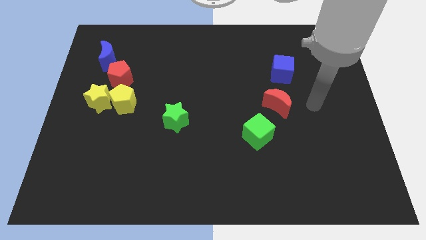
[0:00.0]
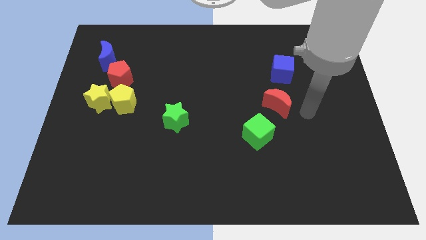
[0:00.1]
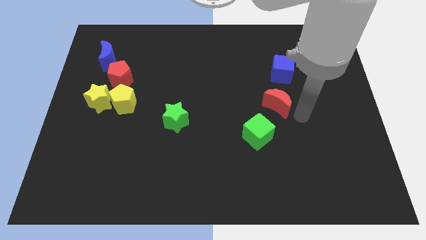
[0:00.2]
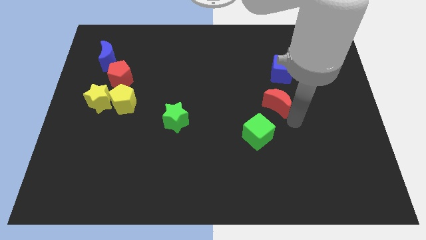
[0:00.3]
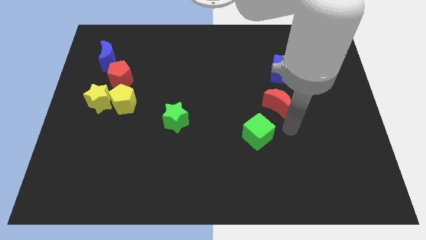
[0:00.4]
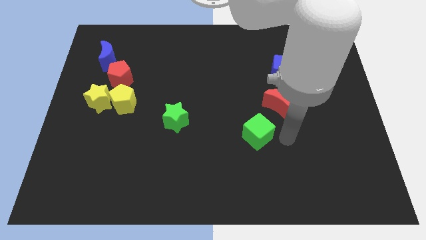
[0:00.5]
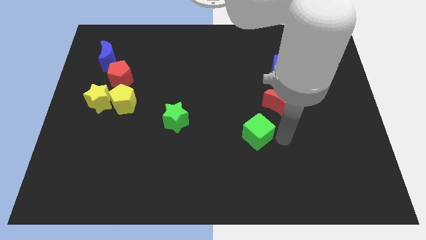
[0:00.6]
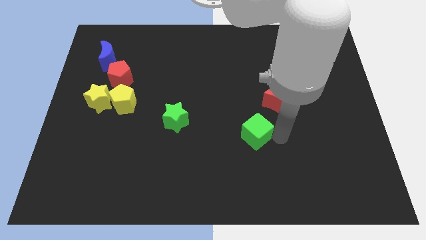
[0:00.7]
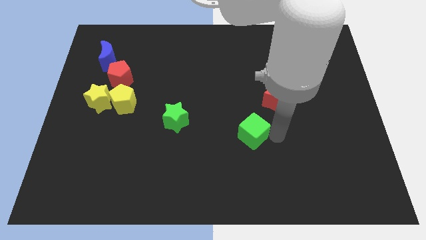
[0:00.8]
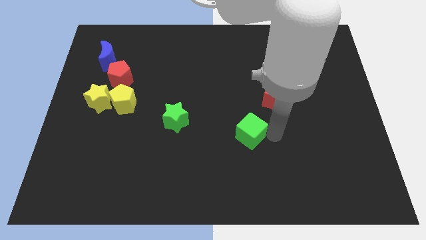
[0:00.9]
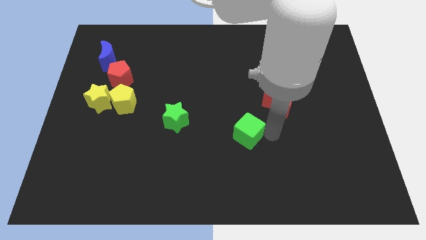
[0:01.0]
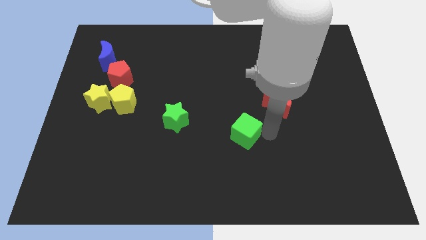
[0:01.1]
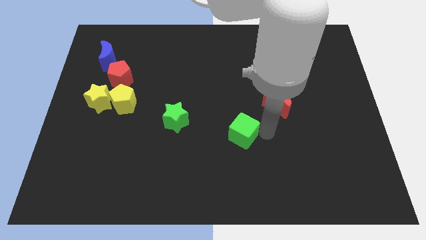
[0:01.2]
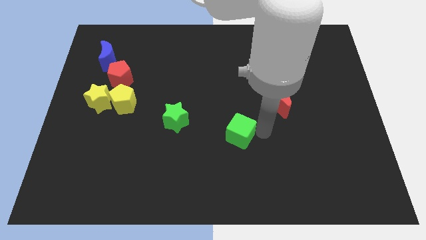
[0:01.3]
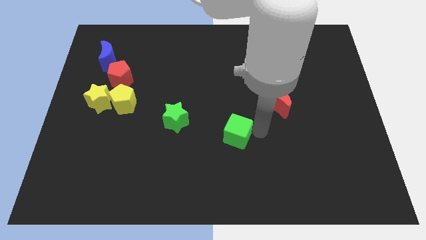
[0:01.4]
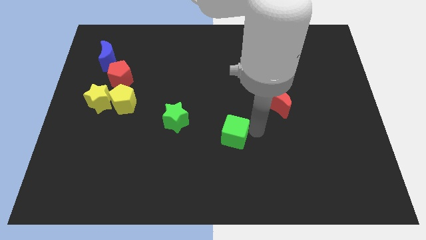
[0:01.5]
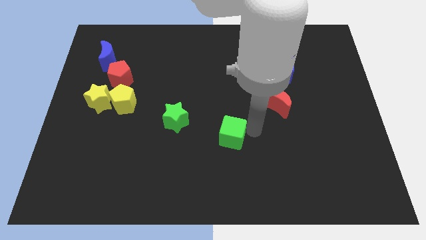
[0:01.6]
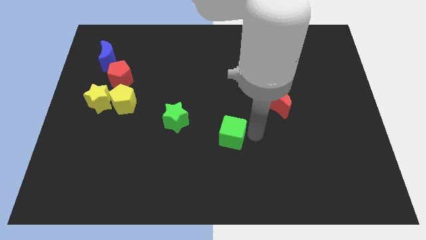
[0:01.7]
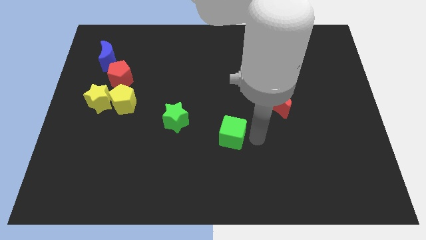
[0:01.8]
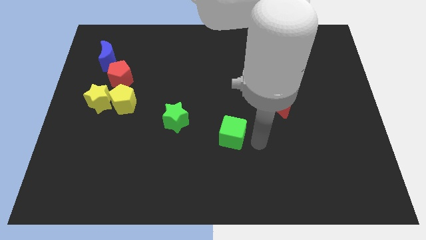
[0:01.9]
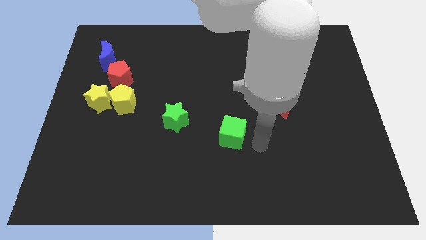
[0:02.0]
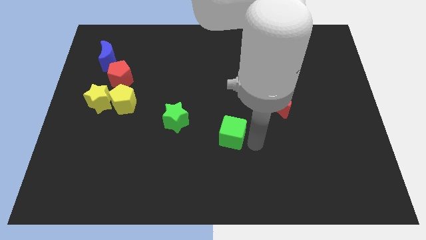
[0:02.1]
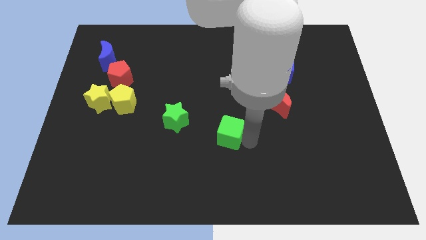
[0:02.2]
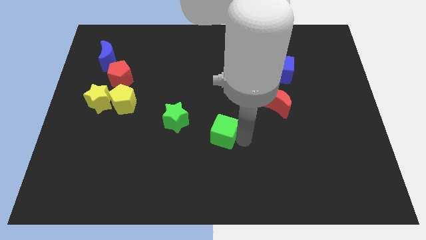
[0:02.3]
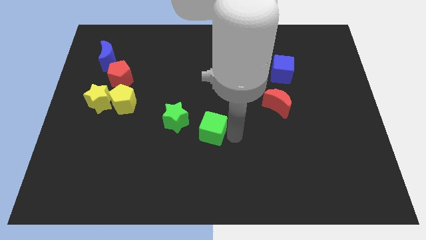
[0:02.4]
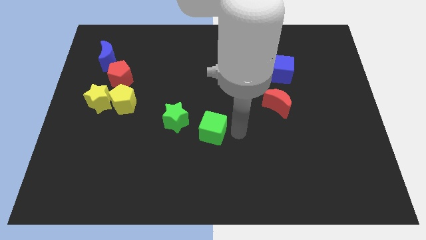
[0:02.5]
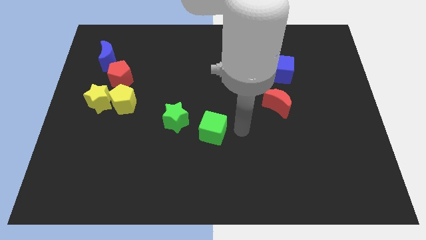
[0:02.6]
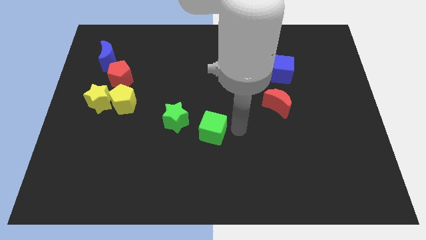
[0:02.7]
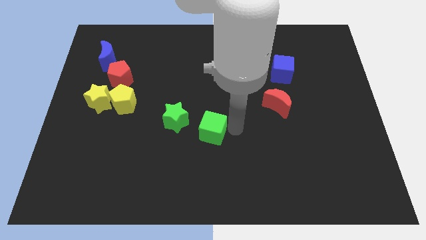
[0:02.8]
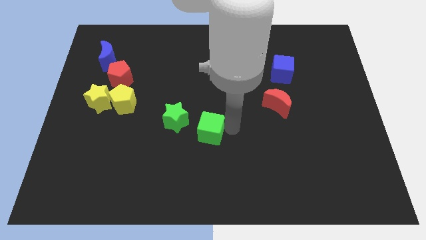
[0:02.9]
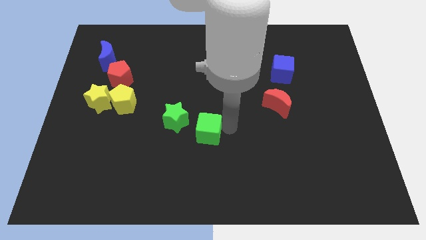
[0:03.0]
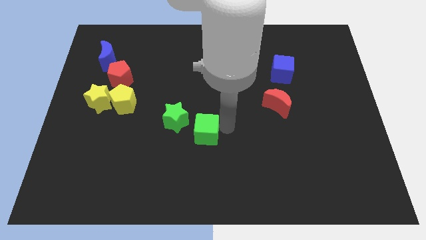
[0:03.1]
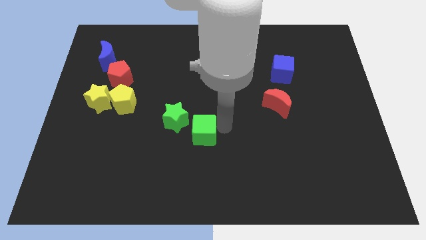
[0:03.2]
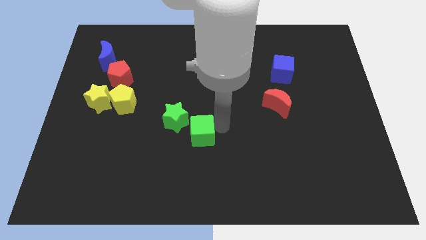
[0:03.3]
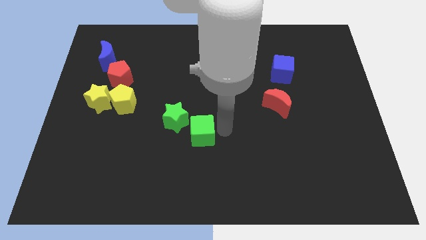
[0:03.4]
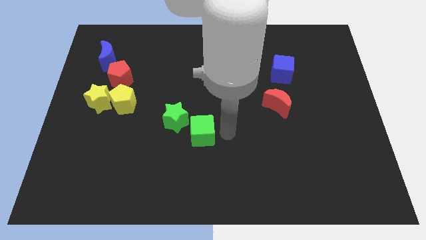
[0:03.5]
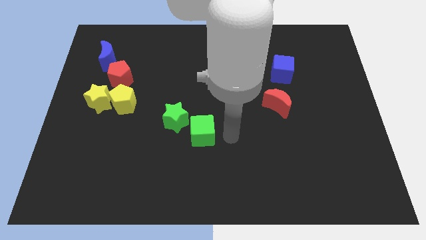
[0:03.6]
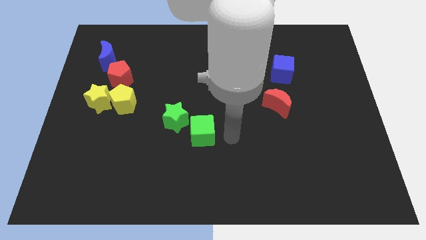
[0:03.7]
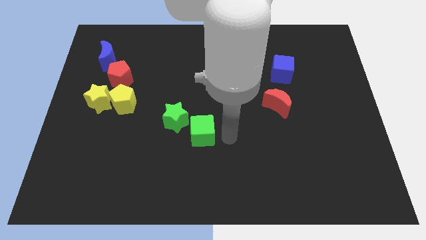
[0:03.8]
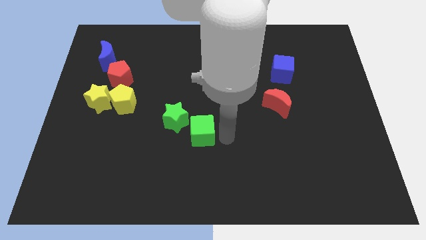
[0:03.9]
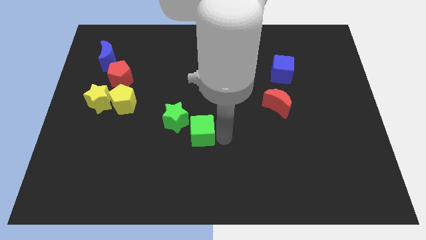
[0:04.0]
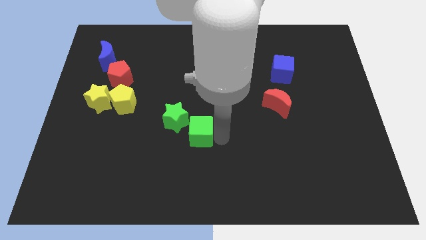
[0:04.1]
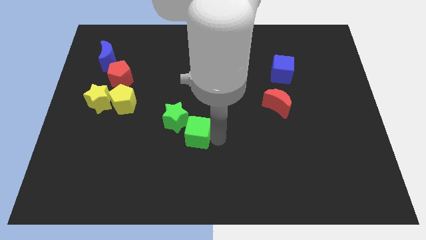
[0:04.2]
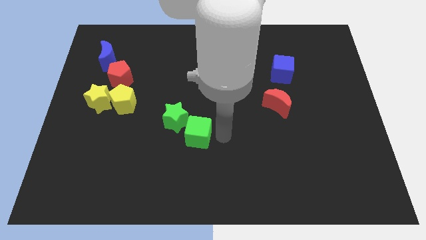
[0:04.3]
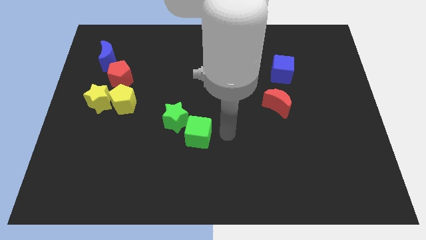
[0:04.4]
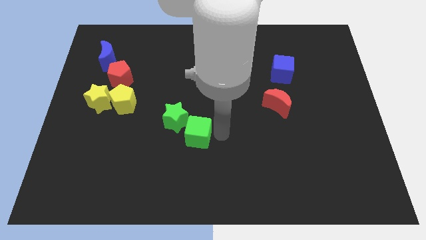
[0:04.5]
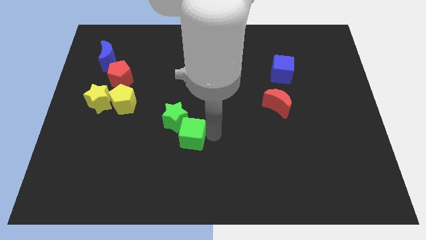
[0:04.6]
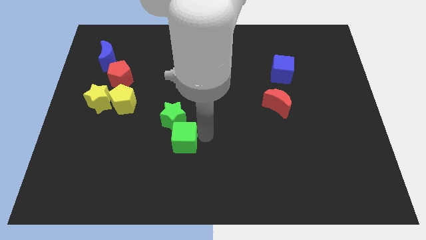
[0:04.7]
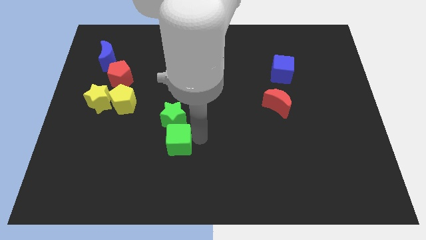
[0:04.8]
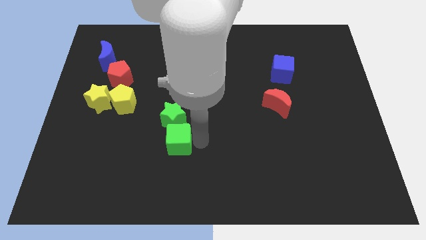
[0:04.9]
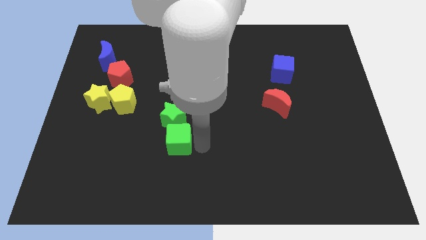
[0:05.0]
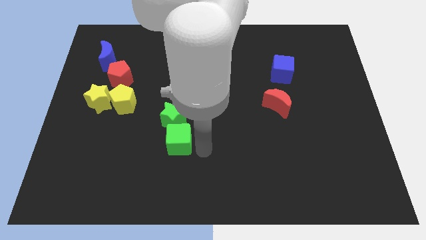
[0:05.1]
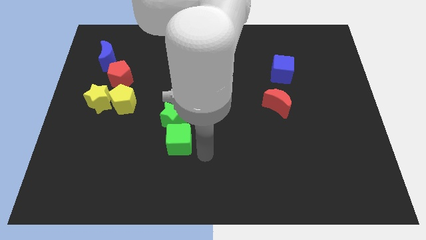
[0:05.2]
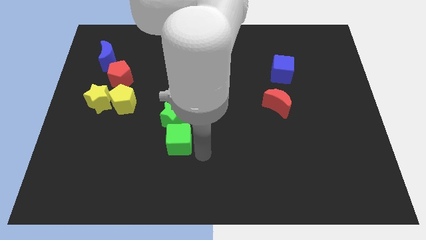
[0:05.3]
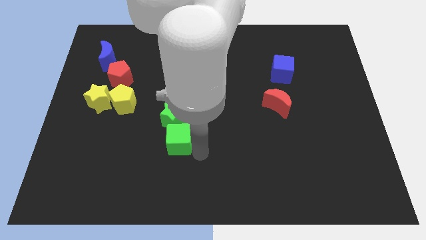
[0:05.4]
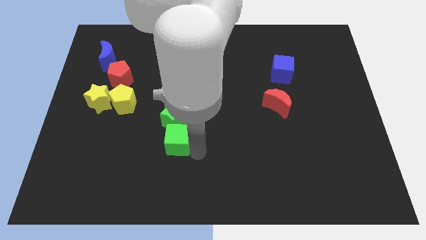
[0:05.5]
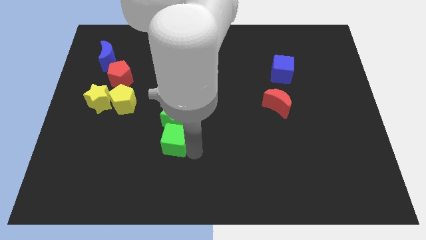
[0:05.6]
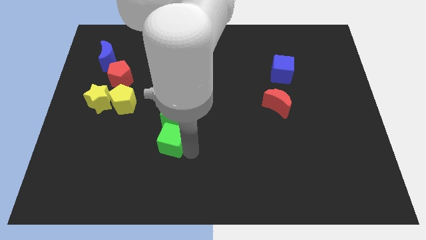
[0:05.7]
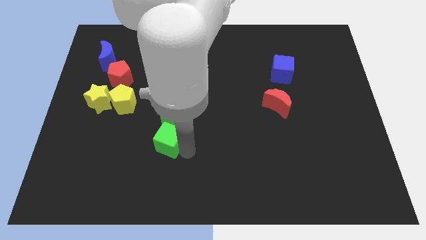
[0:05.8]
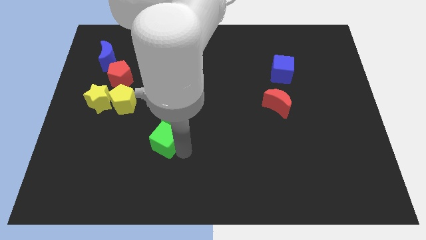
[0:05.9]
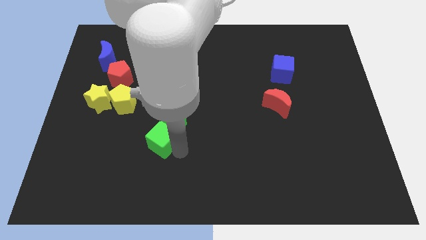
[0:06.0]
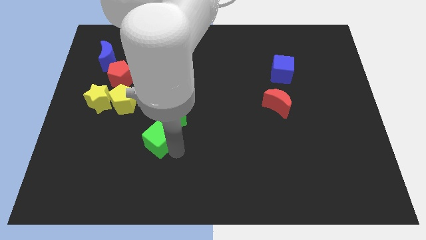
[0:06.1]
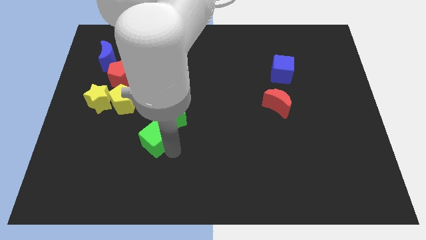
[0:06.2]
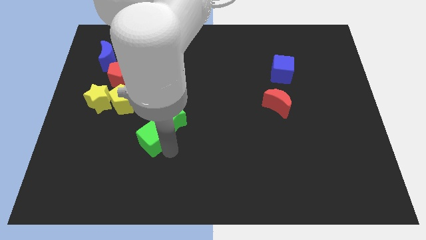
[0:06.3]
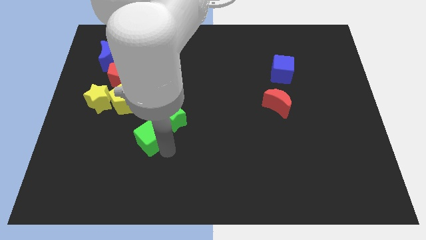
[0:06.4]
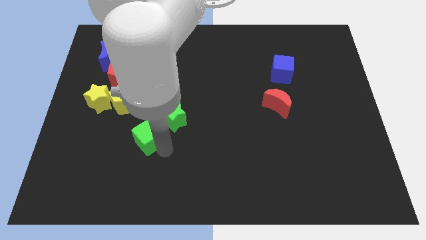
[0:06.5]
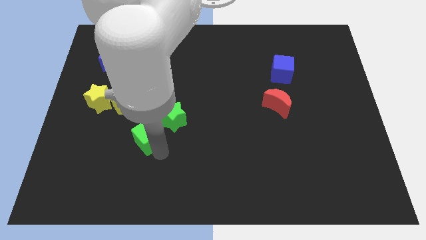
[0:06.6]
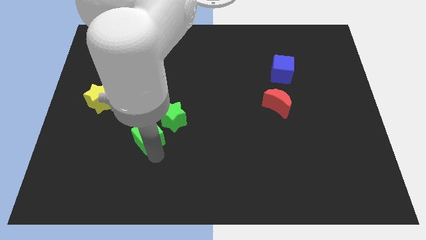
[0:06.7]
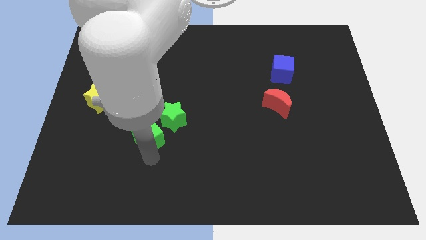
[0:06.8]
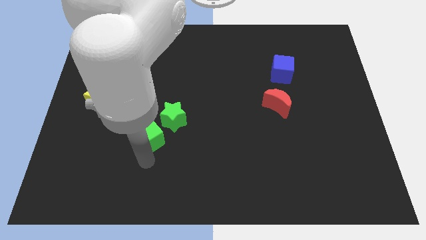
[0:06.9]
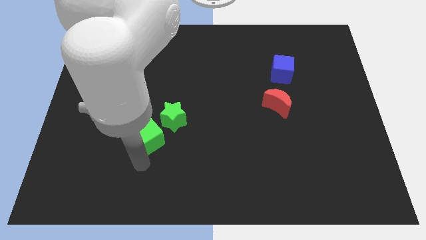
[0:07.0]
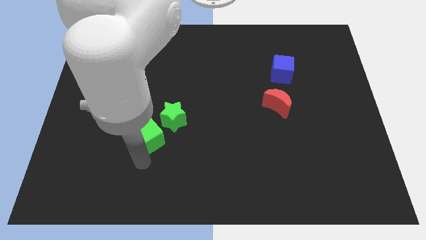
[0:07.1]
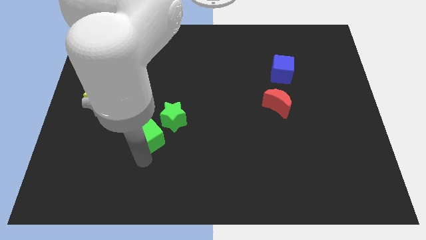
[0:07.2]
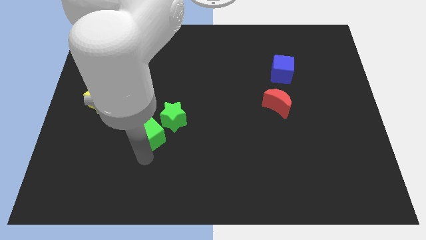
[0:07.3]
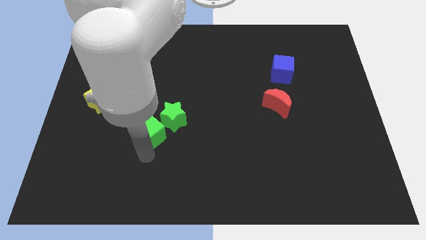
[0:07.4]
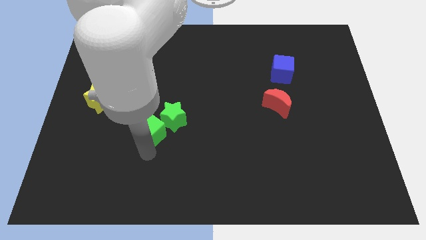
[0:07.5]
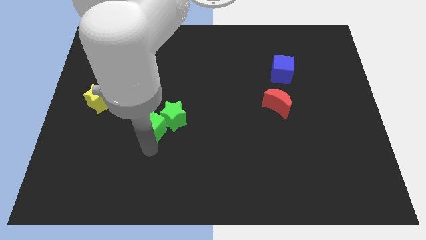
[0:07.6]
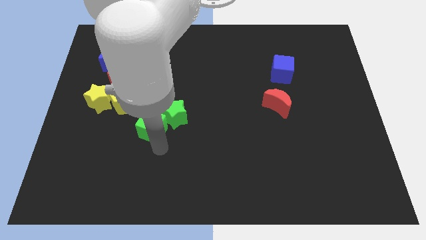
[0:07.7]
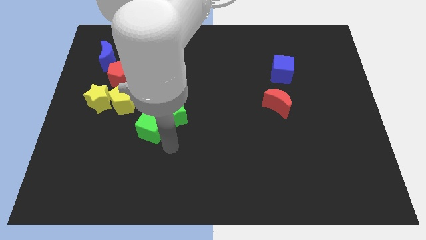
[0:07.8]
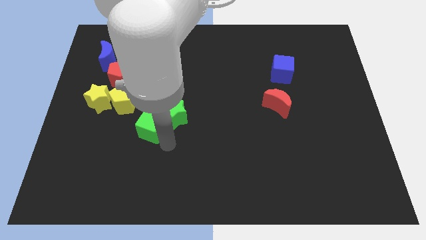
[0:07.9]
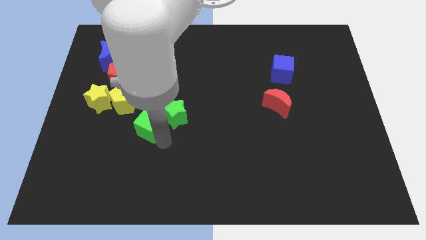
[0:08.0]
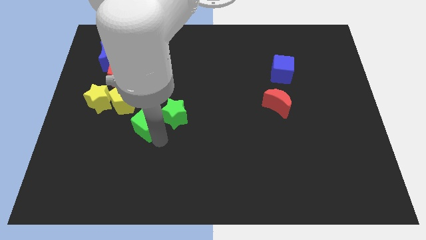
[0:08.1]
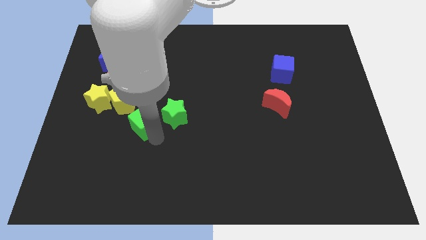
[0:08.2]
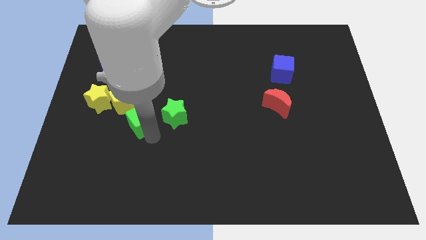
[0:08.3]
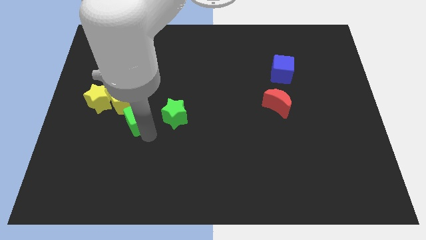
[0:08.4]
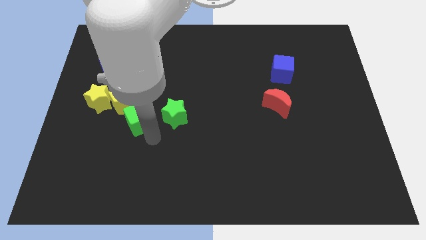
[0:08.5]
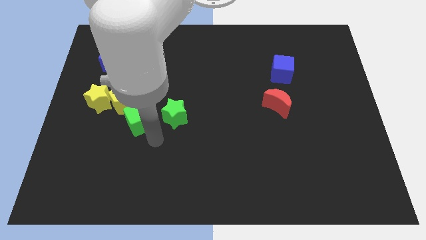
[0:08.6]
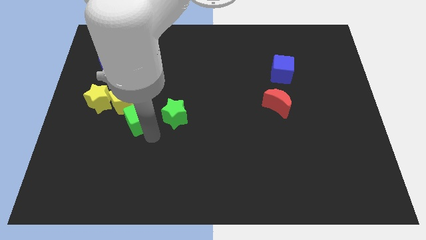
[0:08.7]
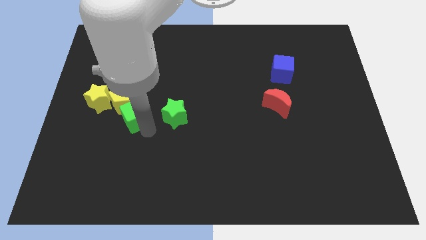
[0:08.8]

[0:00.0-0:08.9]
move the green cube close to the yellow pentagon
